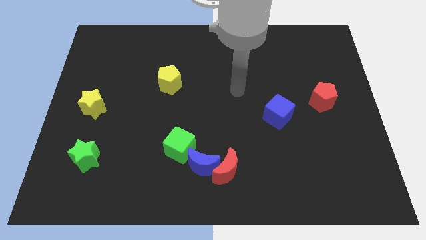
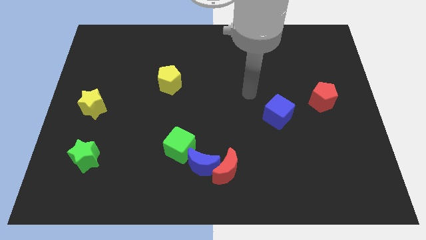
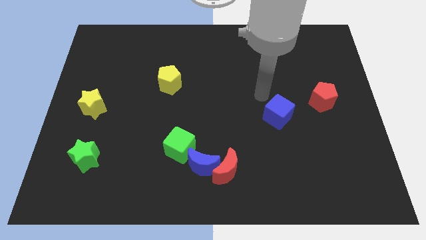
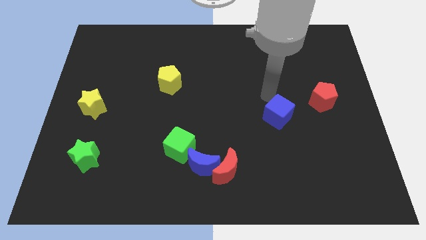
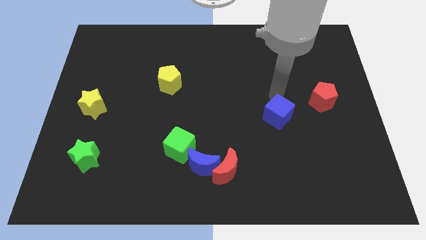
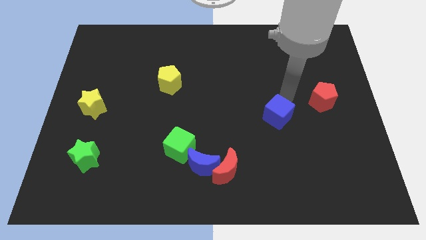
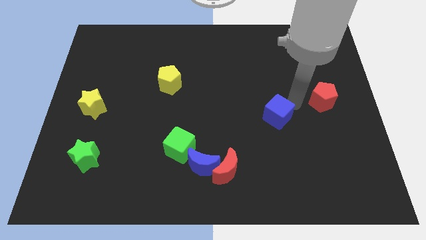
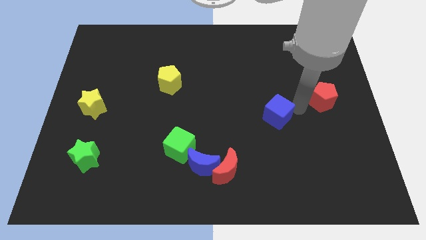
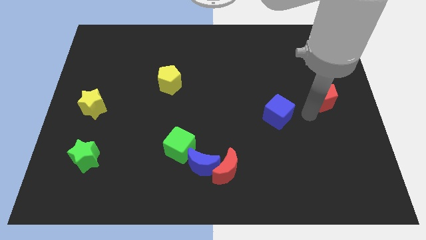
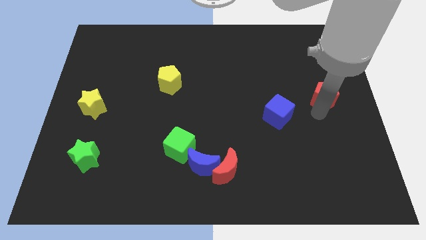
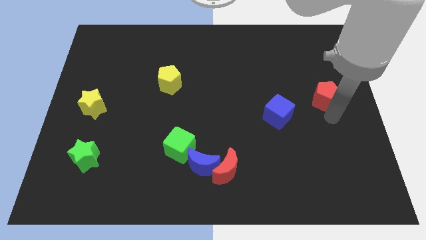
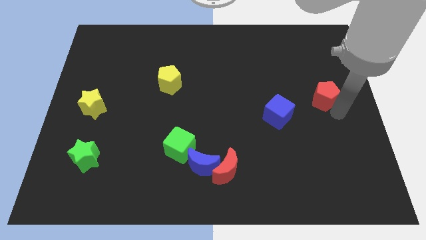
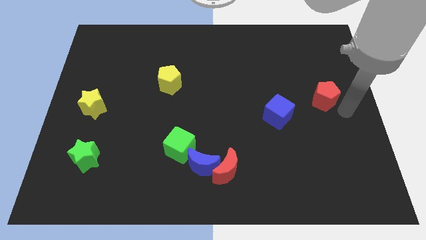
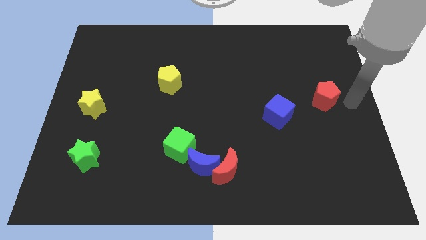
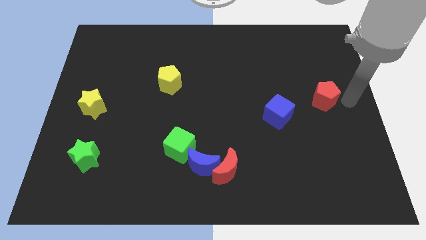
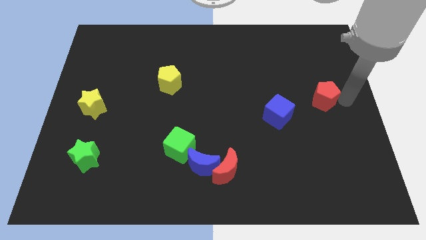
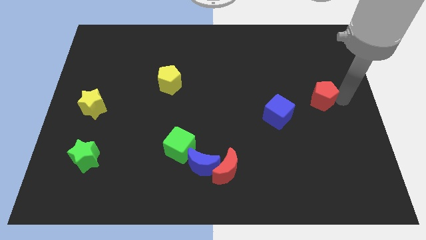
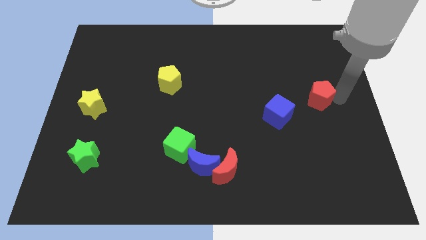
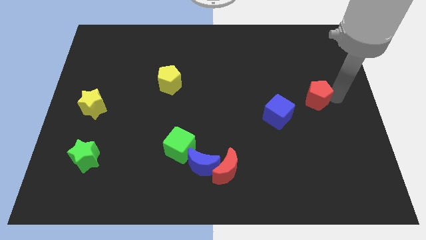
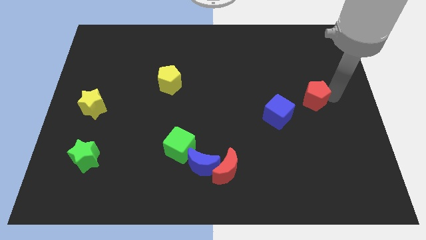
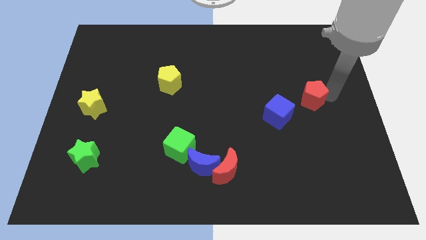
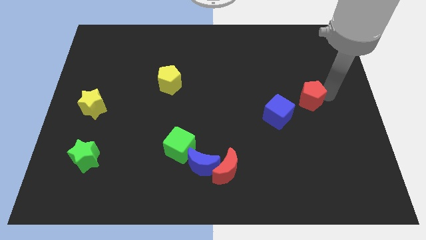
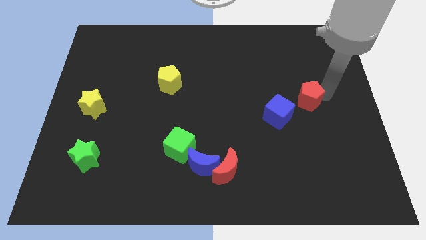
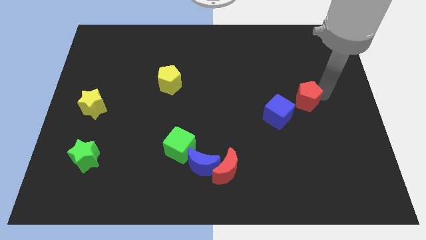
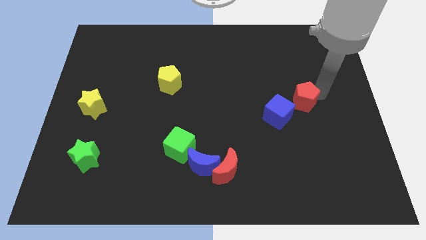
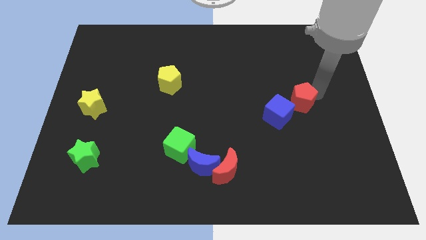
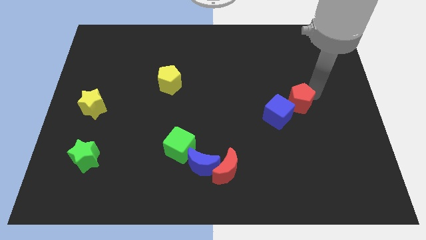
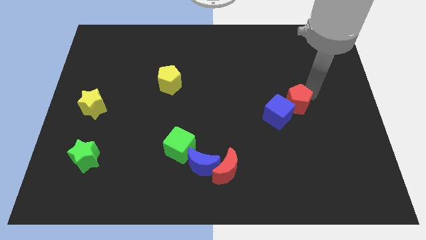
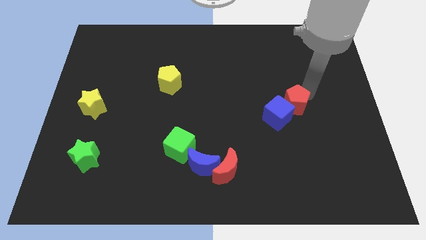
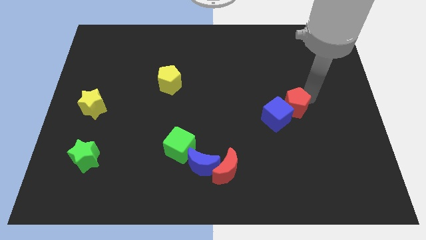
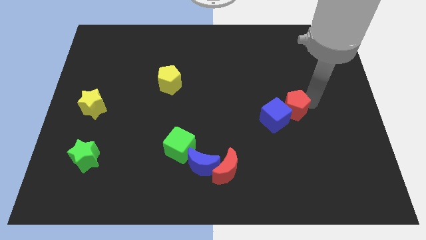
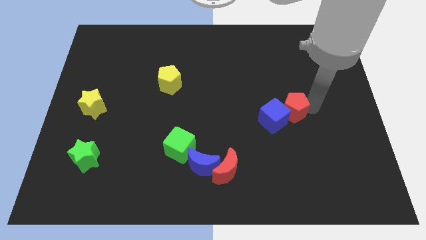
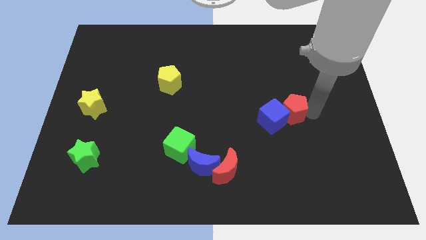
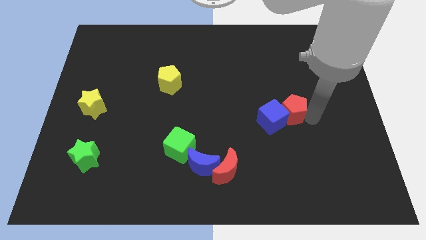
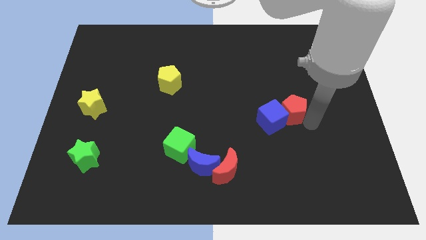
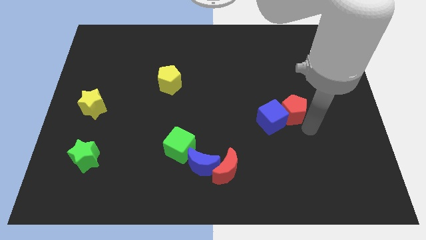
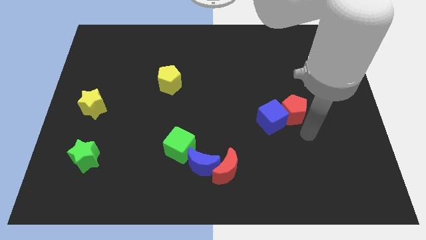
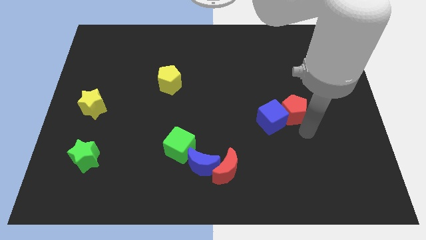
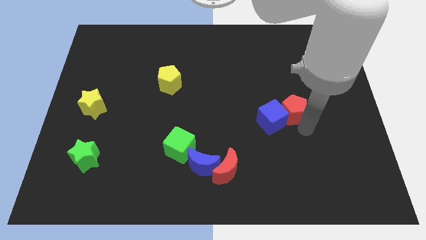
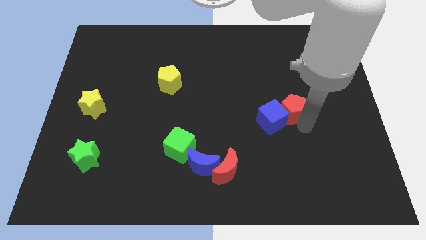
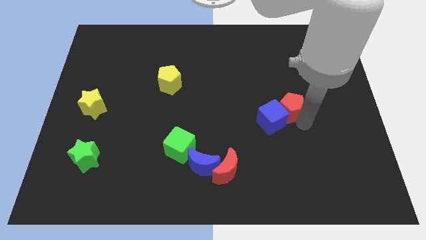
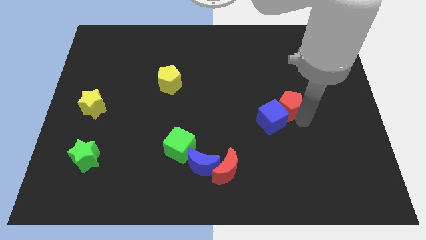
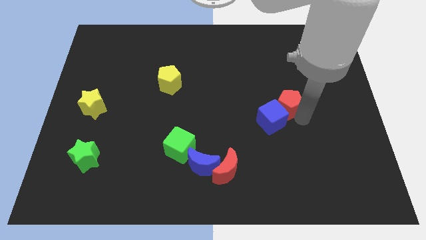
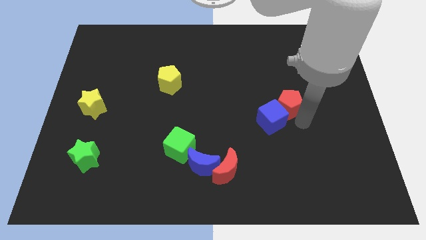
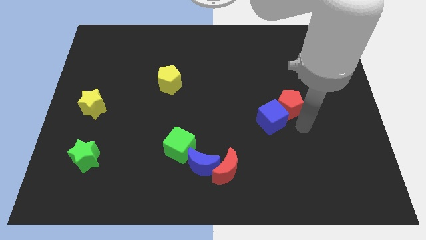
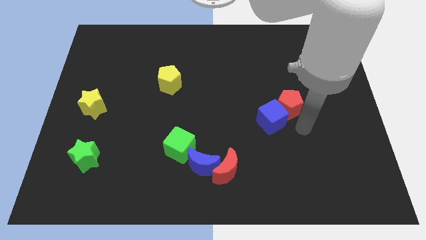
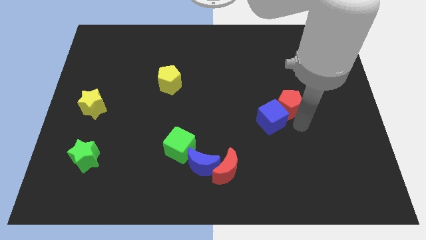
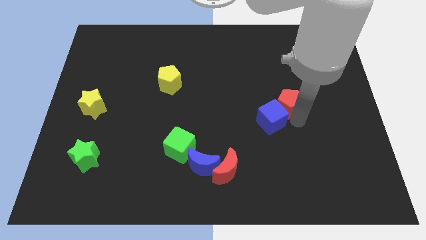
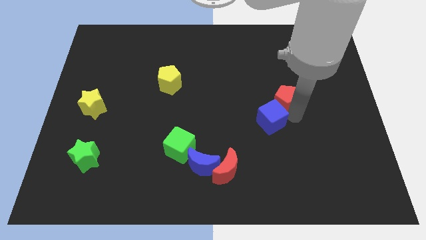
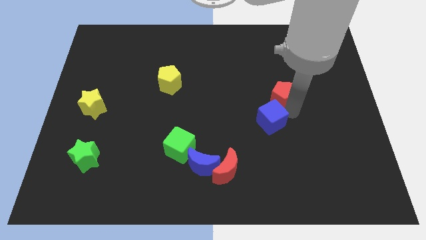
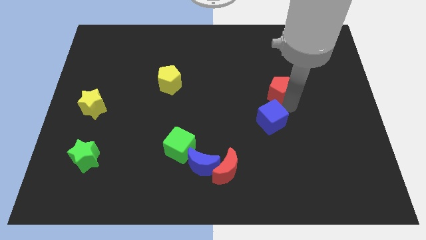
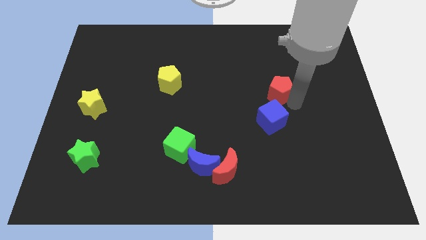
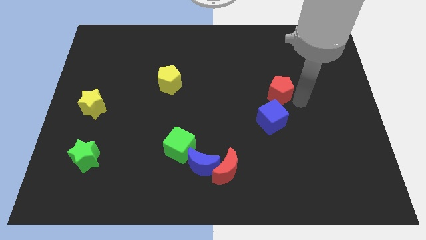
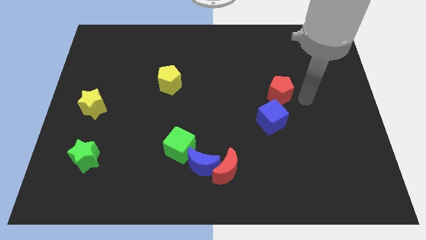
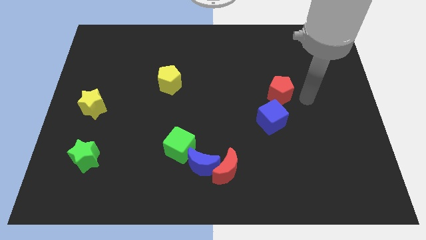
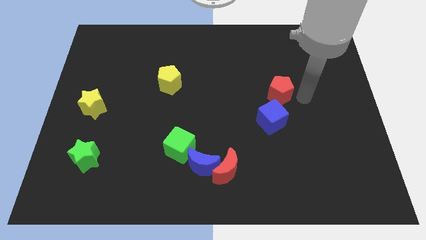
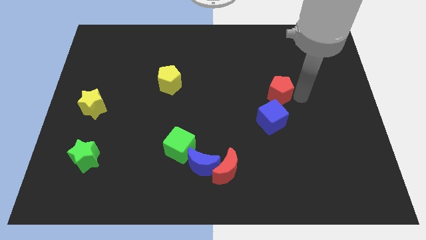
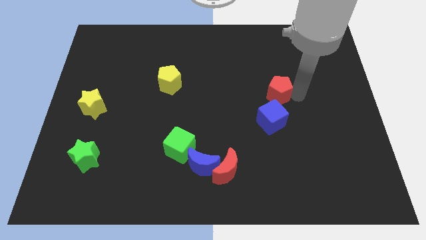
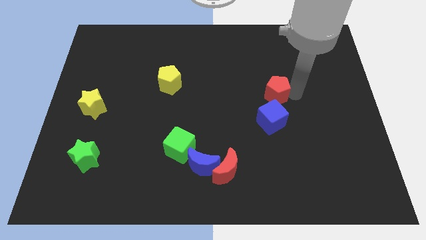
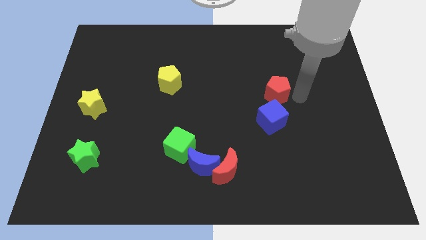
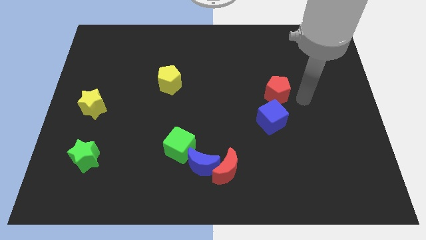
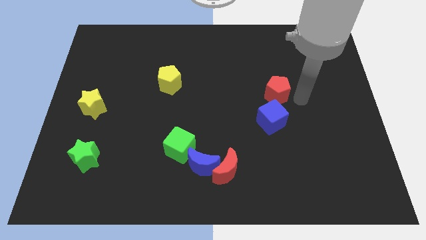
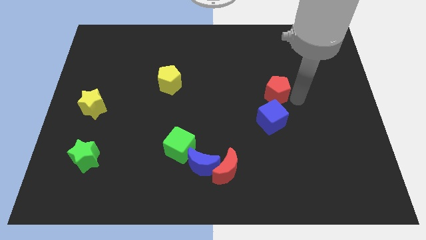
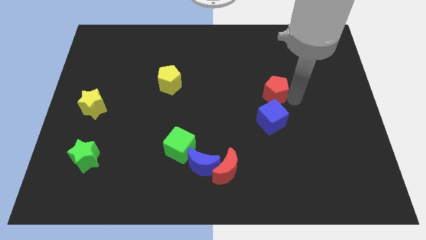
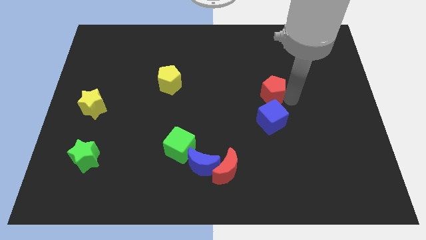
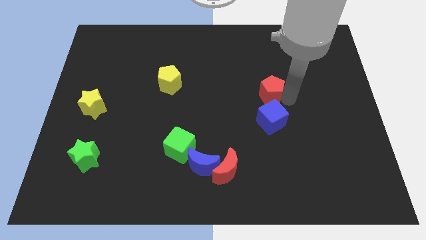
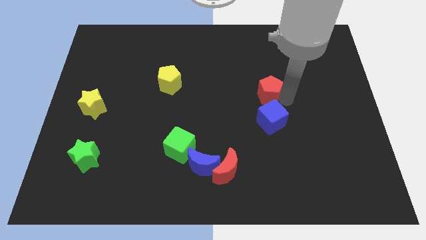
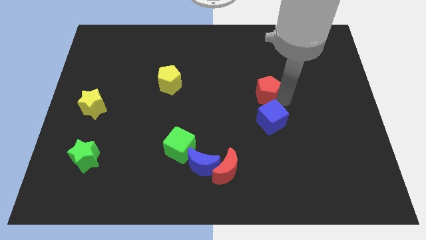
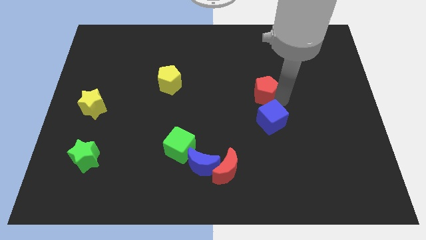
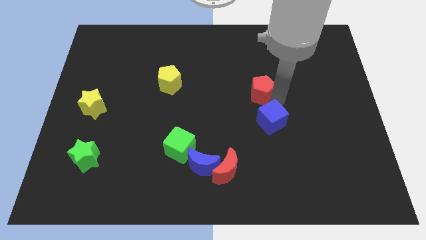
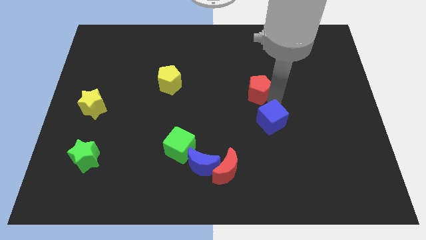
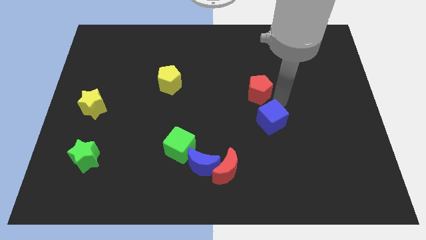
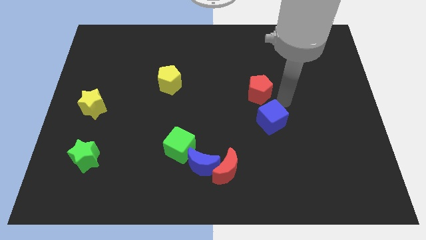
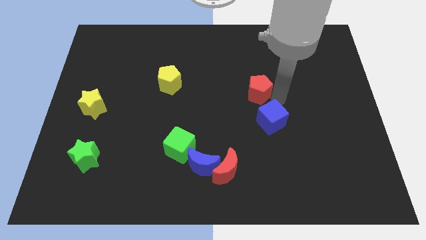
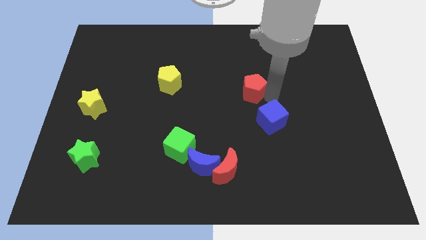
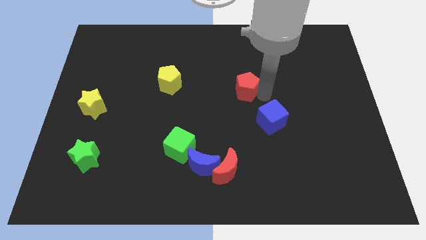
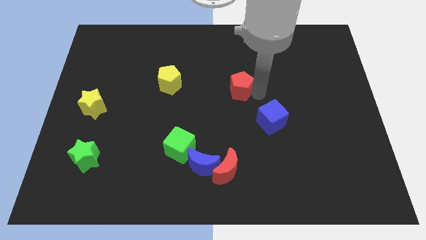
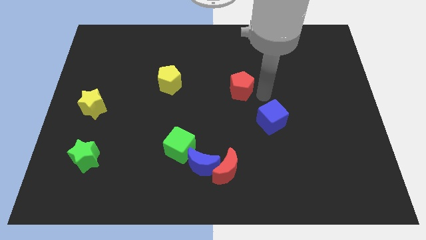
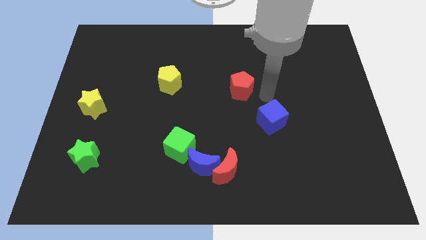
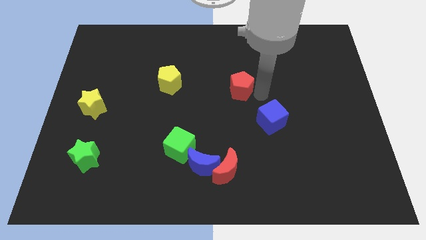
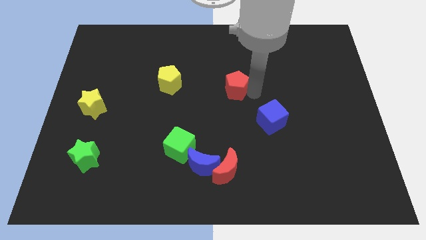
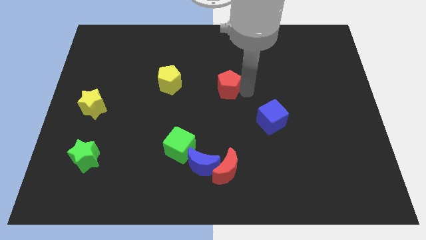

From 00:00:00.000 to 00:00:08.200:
push the red pentagon to the right of the yellow pentagon
